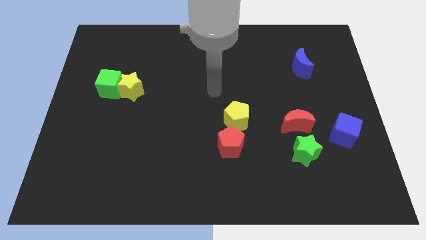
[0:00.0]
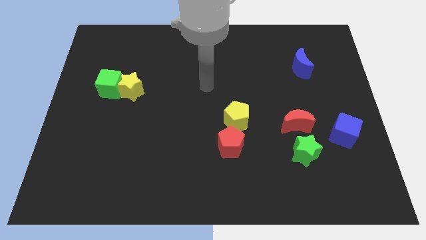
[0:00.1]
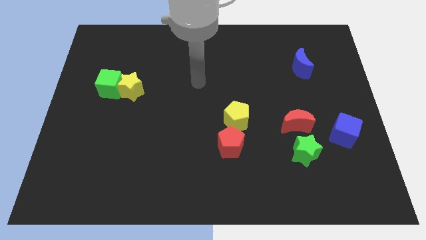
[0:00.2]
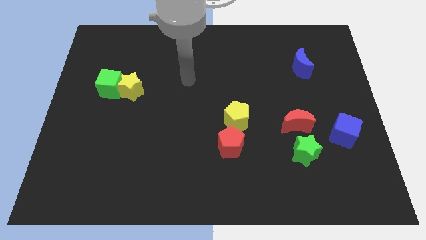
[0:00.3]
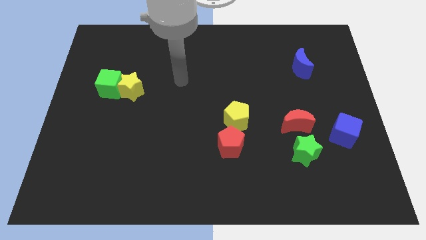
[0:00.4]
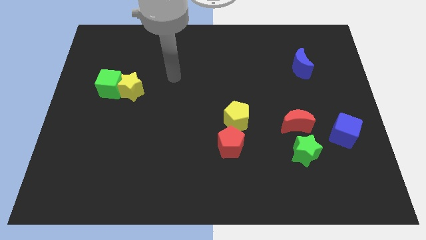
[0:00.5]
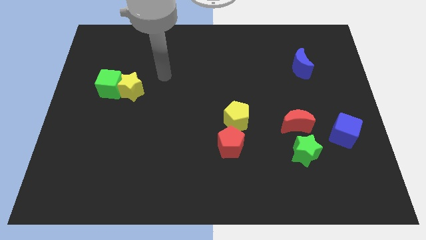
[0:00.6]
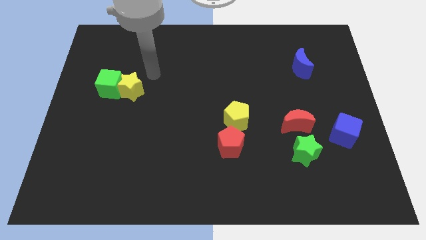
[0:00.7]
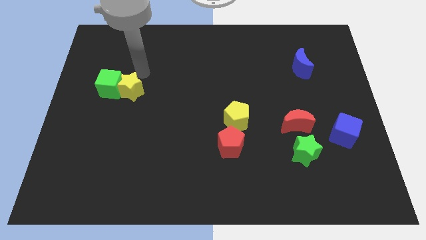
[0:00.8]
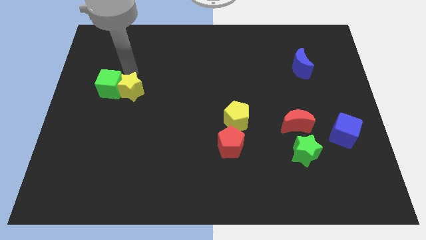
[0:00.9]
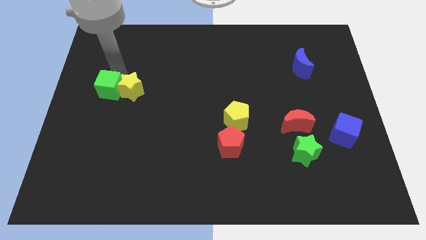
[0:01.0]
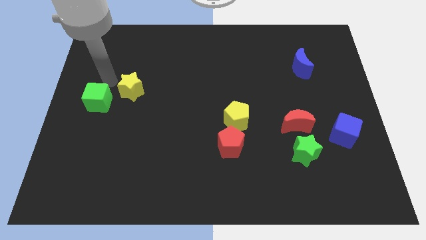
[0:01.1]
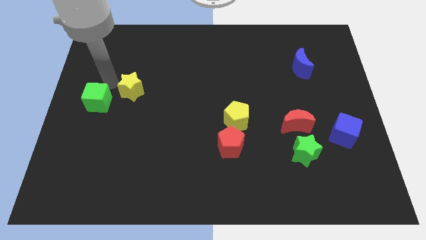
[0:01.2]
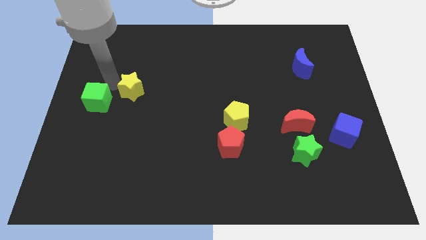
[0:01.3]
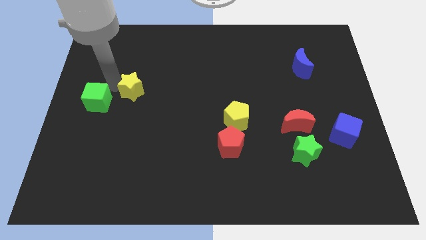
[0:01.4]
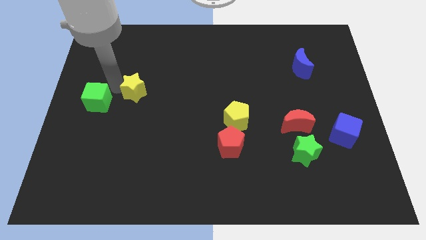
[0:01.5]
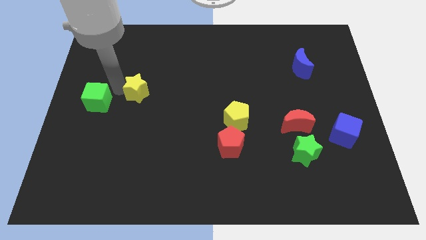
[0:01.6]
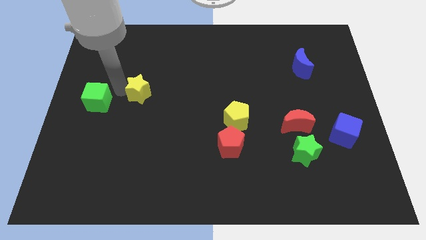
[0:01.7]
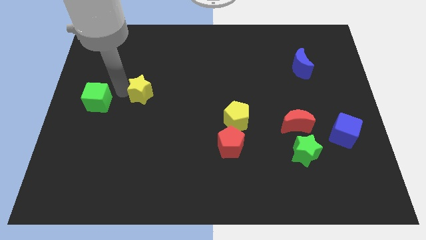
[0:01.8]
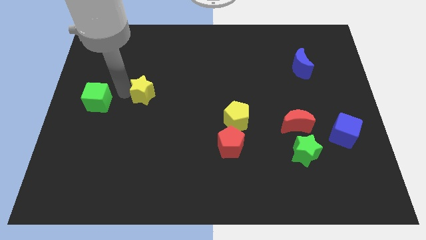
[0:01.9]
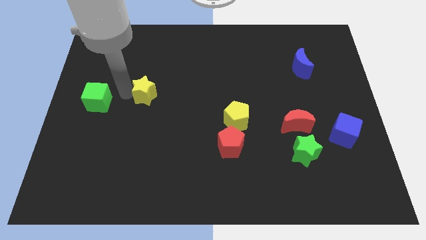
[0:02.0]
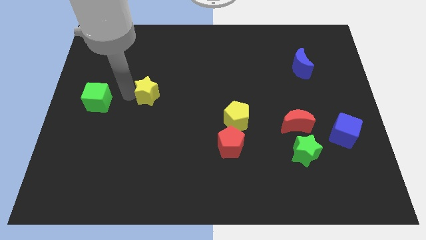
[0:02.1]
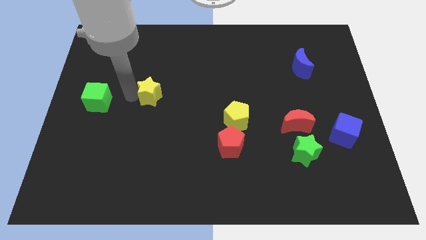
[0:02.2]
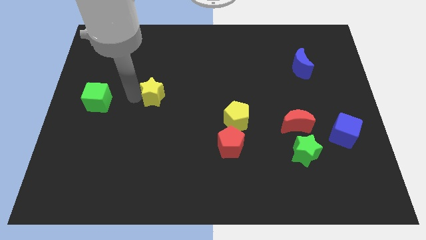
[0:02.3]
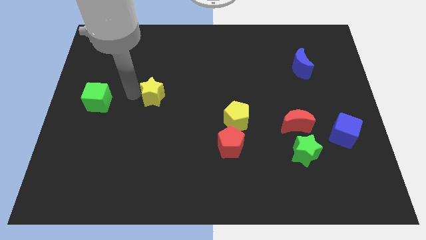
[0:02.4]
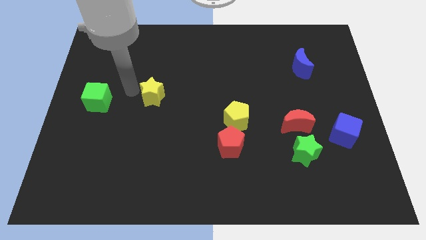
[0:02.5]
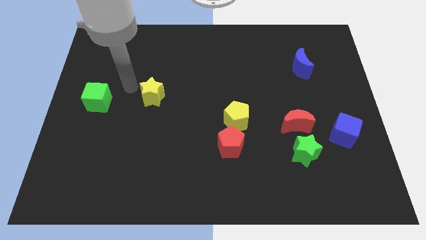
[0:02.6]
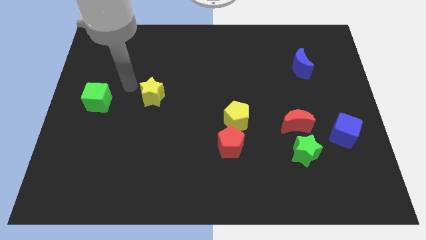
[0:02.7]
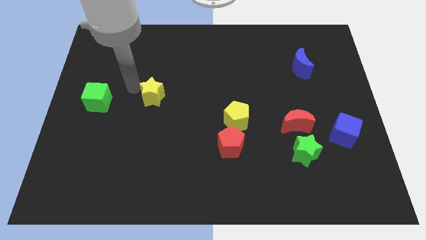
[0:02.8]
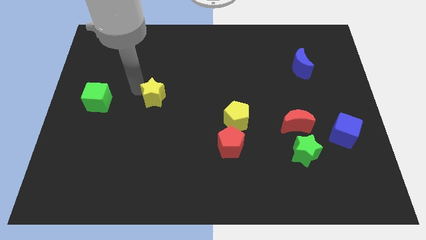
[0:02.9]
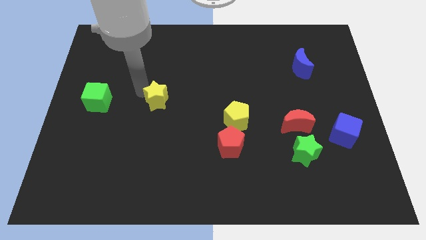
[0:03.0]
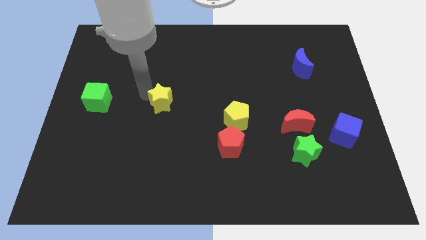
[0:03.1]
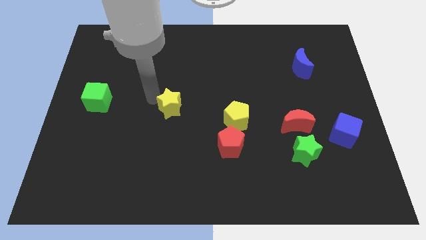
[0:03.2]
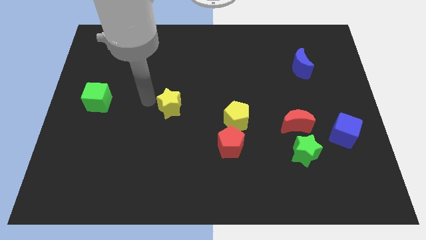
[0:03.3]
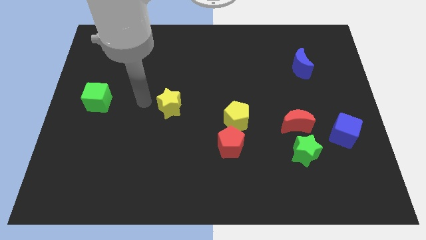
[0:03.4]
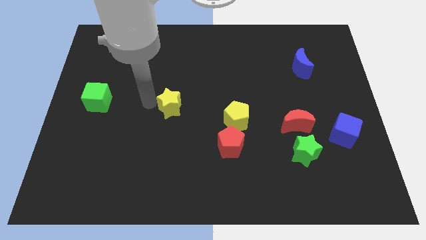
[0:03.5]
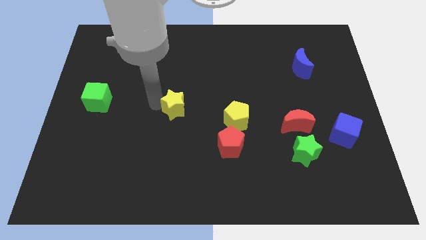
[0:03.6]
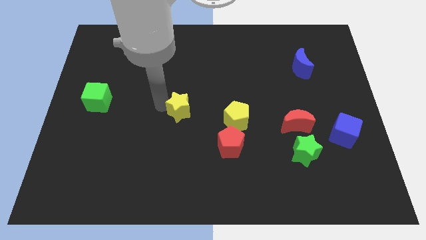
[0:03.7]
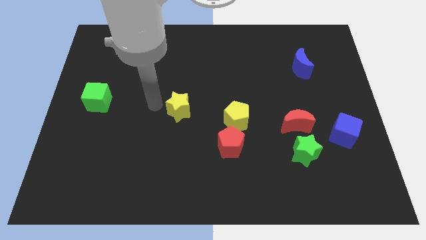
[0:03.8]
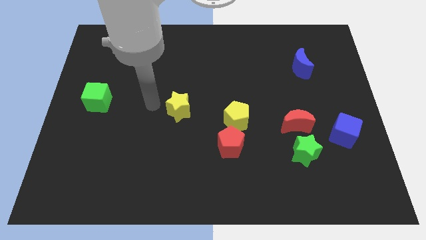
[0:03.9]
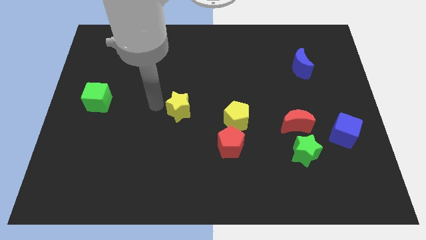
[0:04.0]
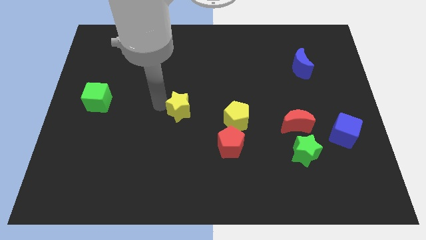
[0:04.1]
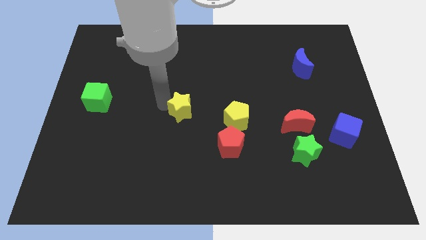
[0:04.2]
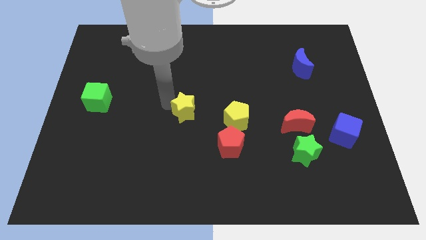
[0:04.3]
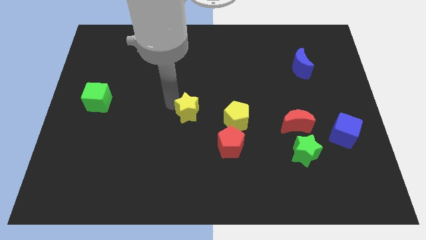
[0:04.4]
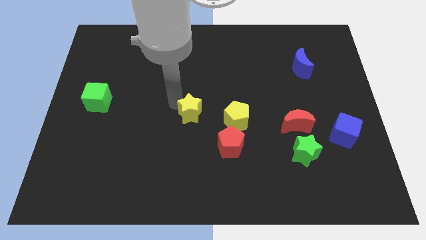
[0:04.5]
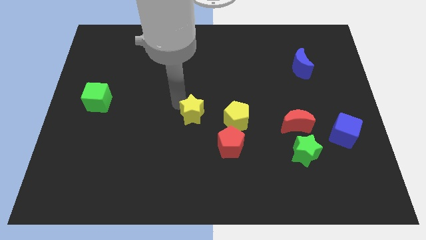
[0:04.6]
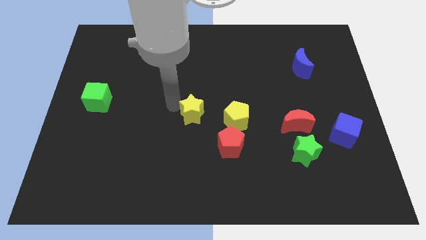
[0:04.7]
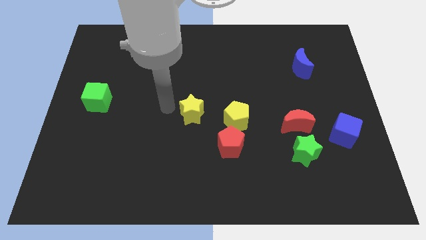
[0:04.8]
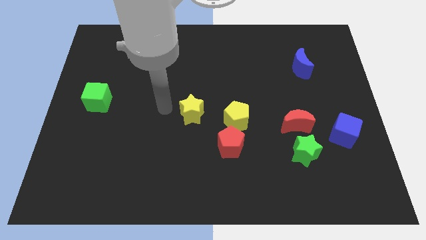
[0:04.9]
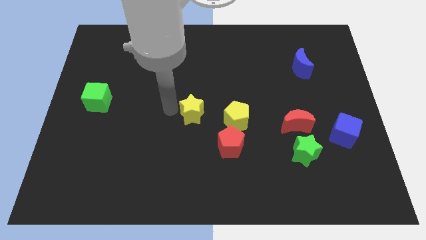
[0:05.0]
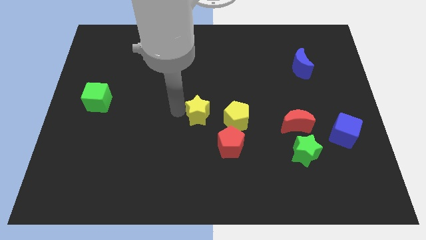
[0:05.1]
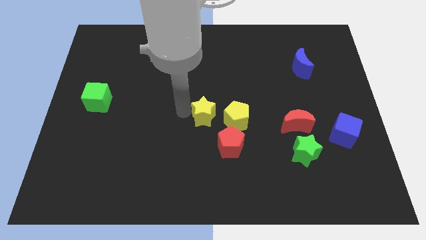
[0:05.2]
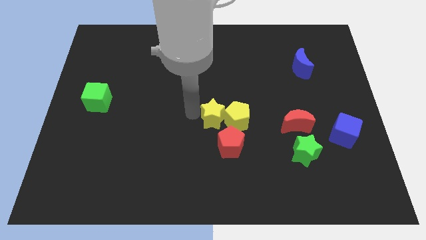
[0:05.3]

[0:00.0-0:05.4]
push the yellow star next to the yellow pentagon

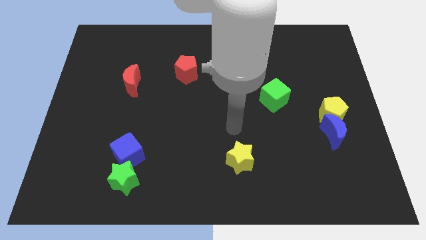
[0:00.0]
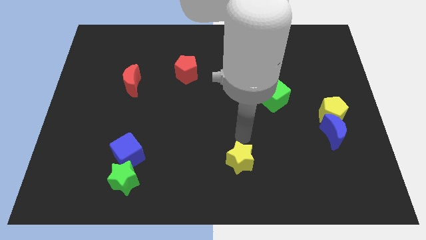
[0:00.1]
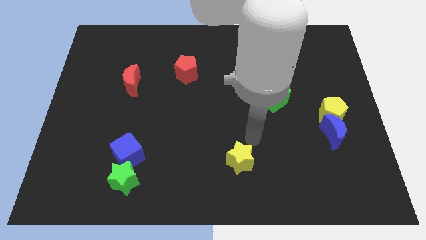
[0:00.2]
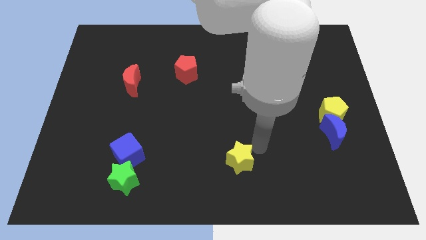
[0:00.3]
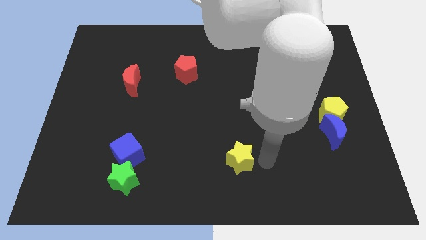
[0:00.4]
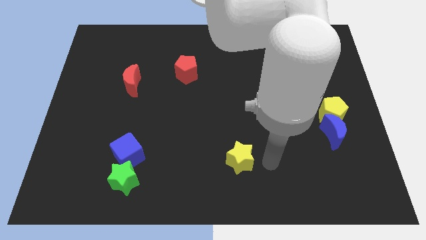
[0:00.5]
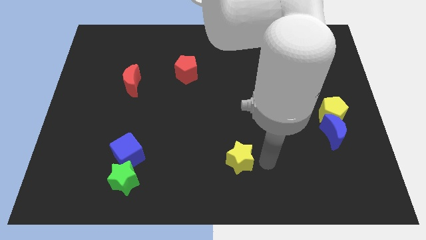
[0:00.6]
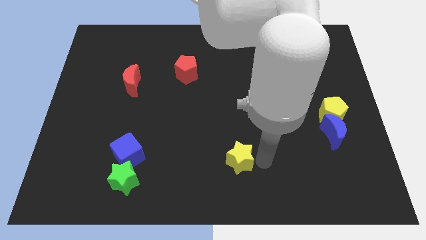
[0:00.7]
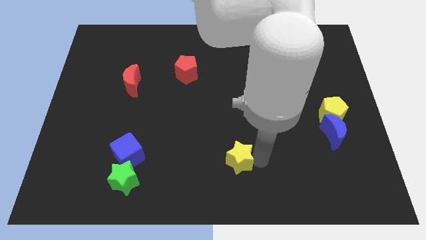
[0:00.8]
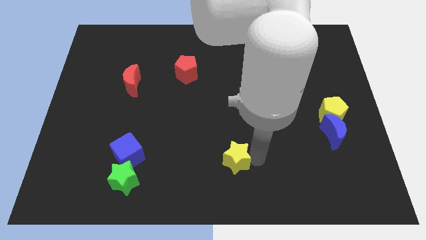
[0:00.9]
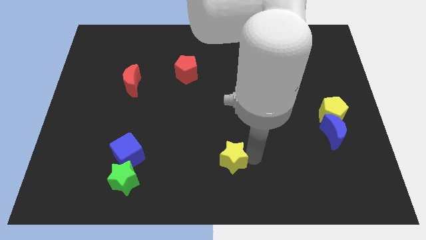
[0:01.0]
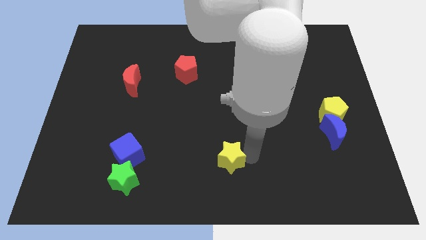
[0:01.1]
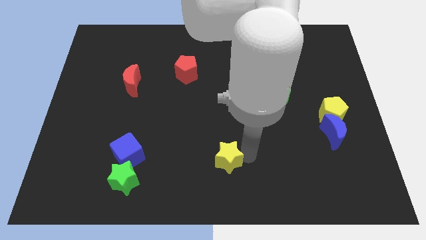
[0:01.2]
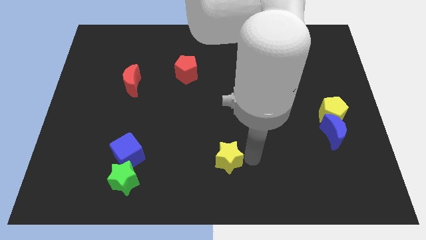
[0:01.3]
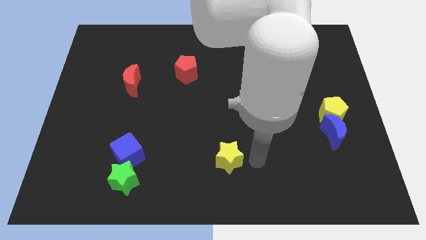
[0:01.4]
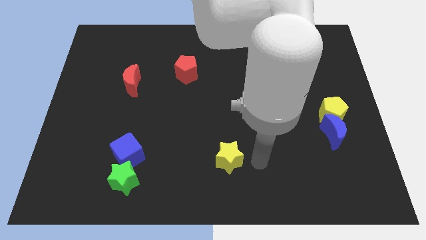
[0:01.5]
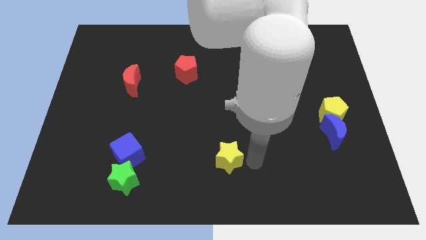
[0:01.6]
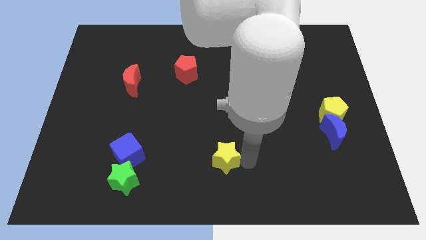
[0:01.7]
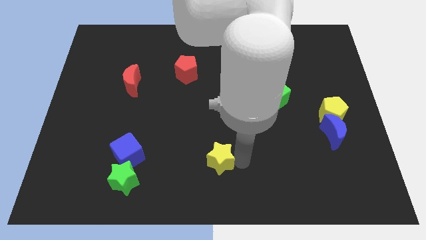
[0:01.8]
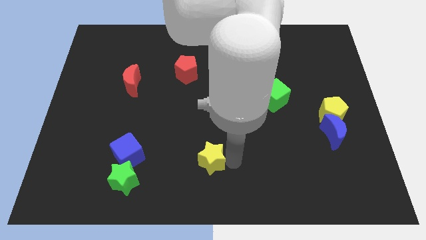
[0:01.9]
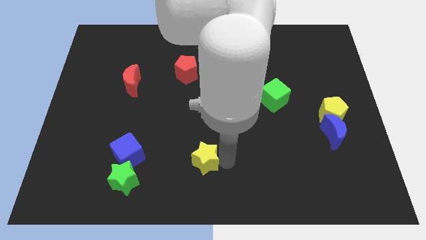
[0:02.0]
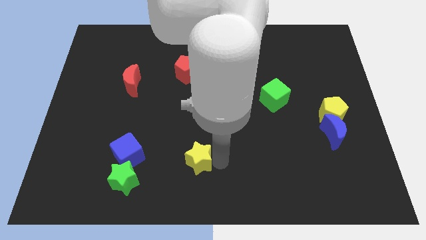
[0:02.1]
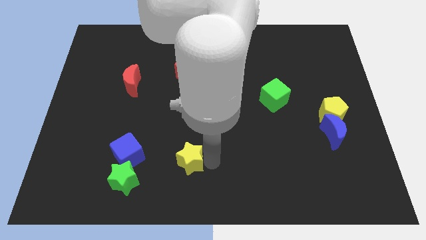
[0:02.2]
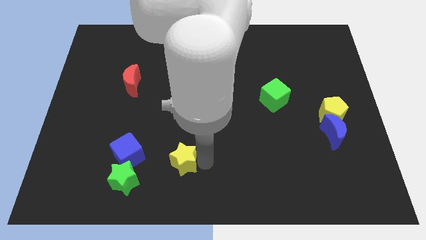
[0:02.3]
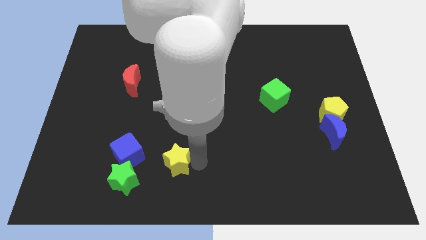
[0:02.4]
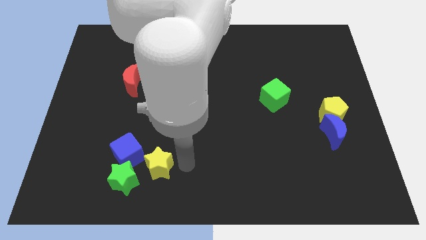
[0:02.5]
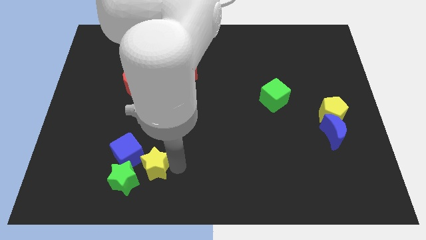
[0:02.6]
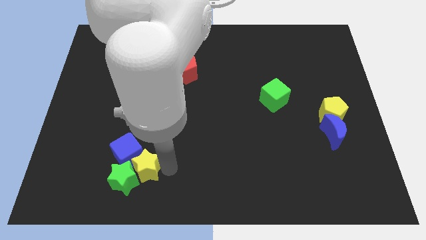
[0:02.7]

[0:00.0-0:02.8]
push the yellow star next to the blue cube
